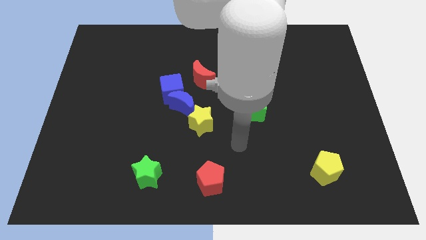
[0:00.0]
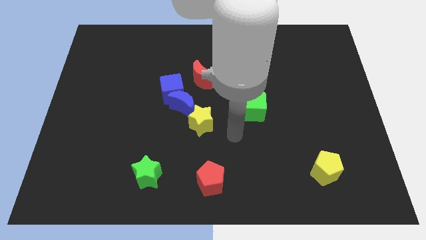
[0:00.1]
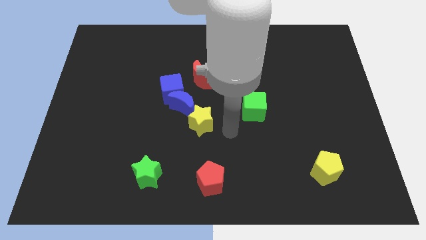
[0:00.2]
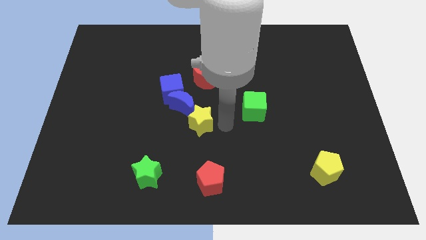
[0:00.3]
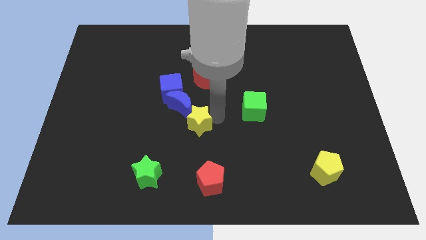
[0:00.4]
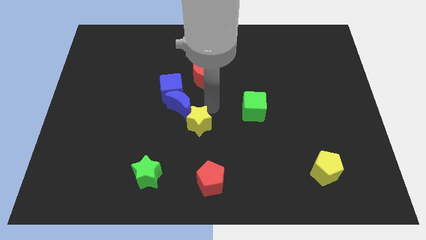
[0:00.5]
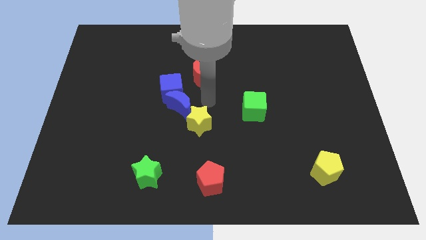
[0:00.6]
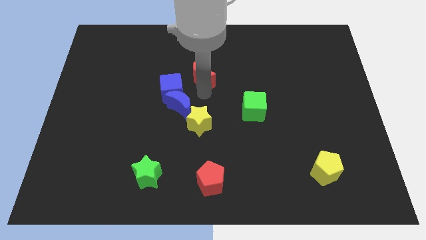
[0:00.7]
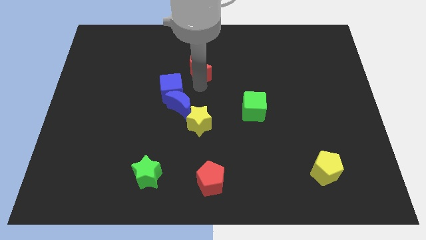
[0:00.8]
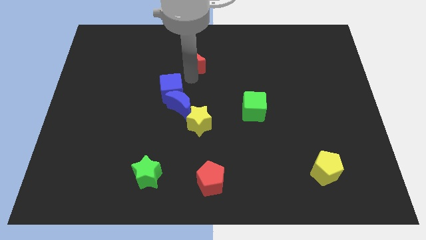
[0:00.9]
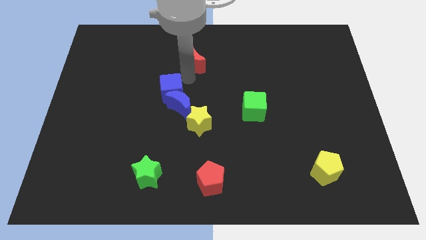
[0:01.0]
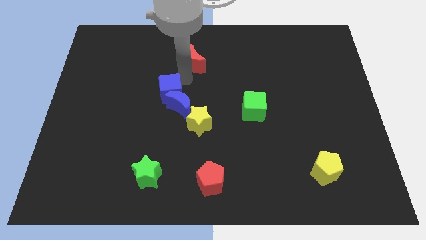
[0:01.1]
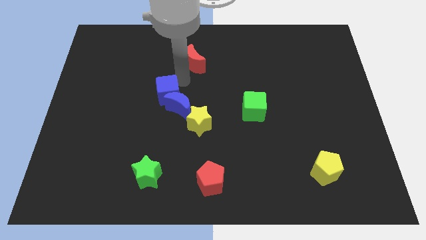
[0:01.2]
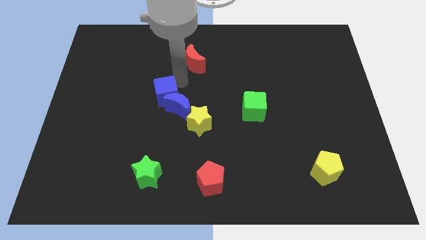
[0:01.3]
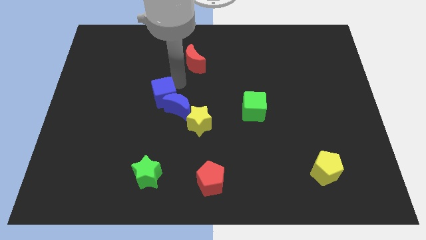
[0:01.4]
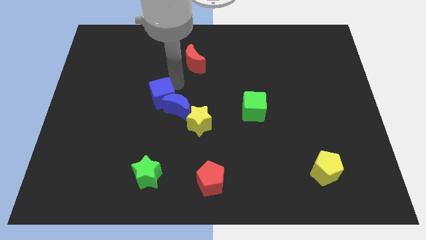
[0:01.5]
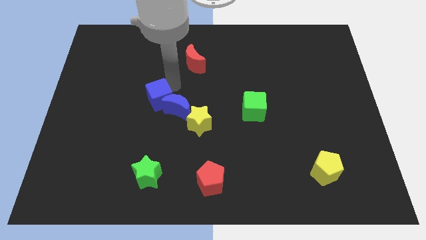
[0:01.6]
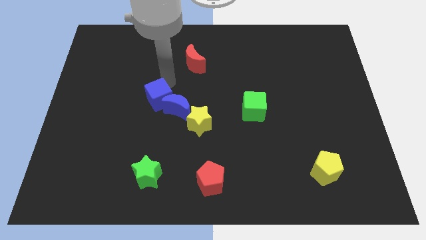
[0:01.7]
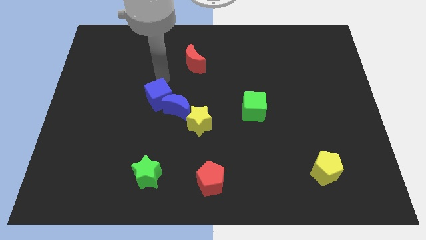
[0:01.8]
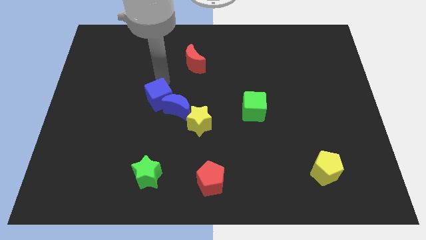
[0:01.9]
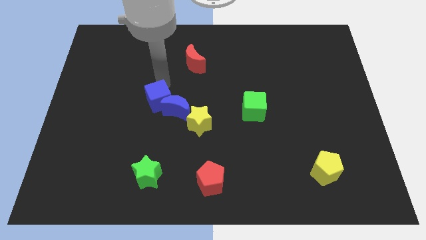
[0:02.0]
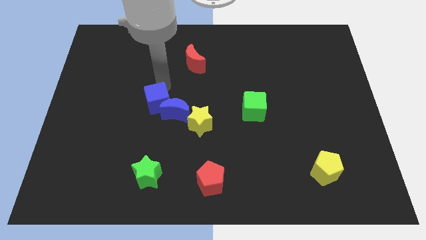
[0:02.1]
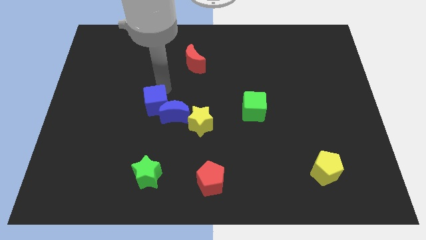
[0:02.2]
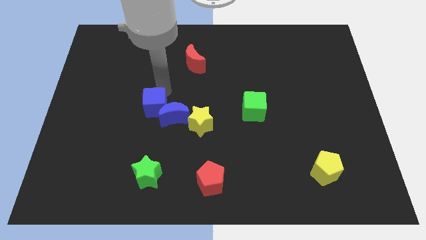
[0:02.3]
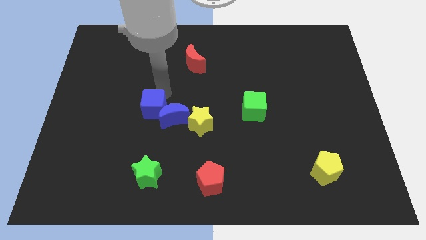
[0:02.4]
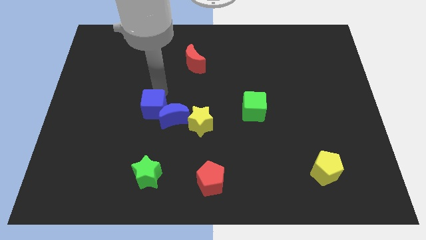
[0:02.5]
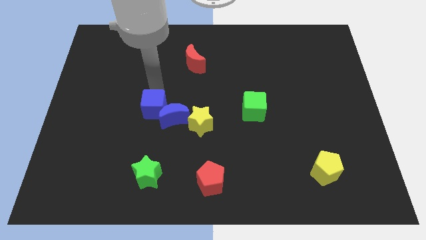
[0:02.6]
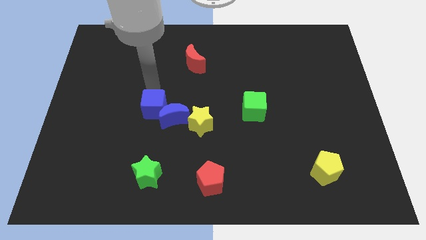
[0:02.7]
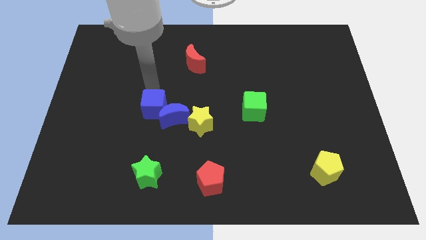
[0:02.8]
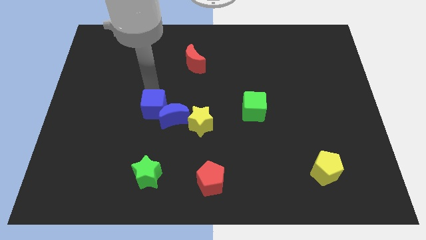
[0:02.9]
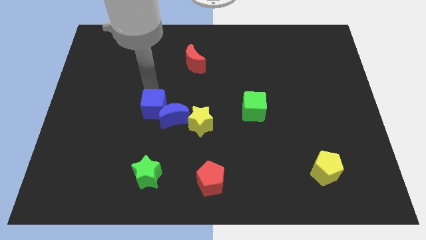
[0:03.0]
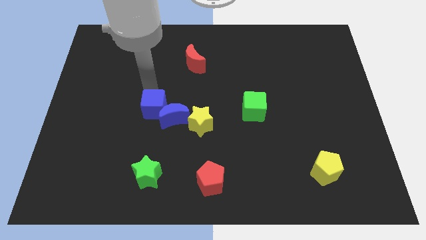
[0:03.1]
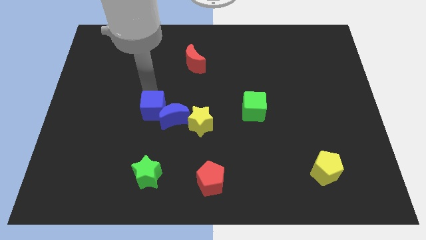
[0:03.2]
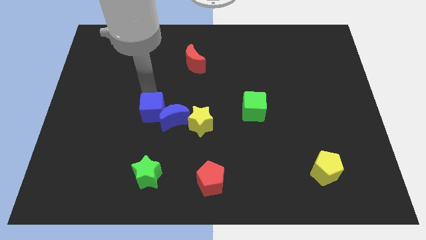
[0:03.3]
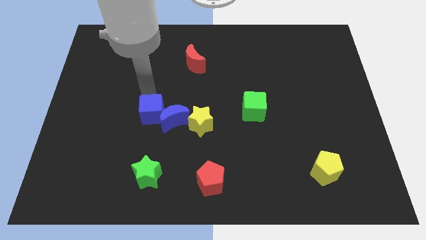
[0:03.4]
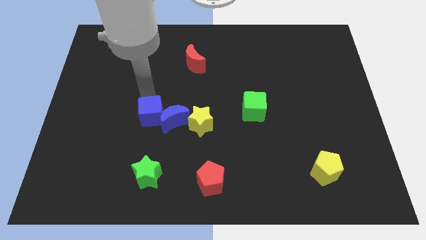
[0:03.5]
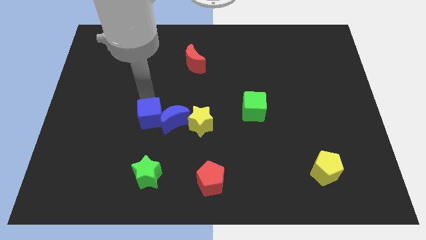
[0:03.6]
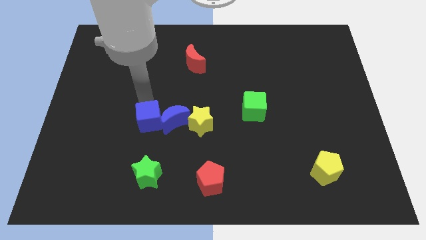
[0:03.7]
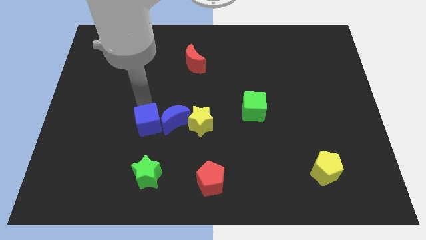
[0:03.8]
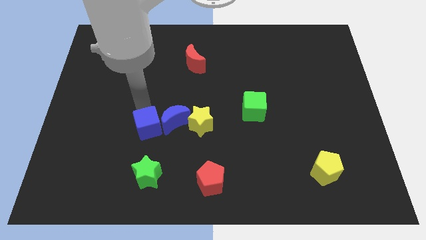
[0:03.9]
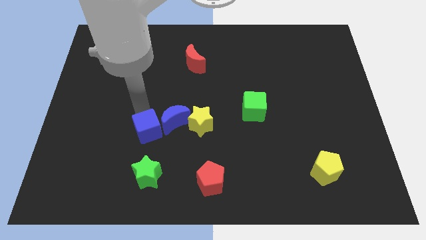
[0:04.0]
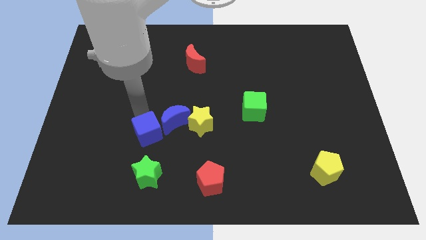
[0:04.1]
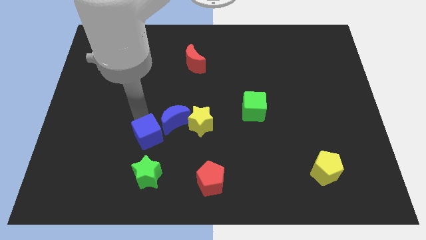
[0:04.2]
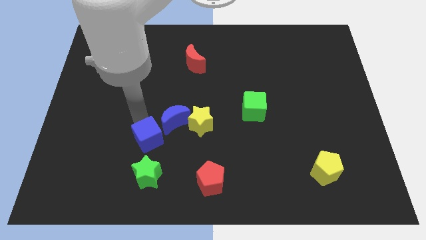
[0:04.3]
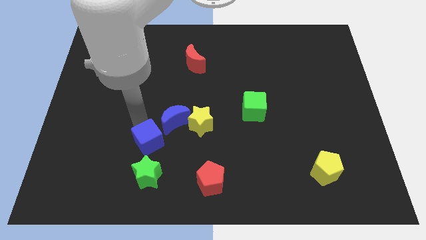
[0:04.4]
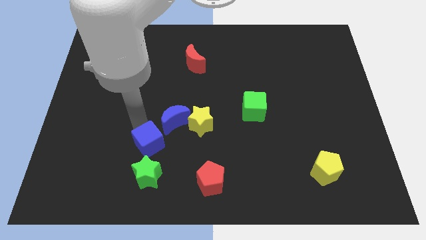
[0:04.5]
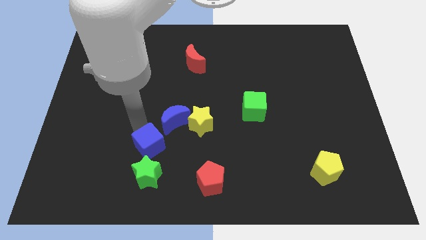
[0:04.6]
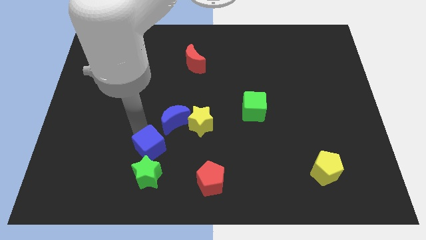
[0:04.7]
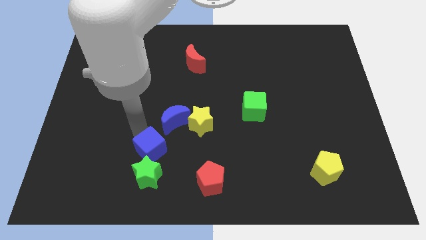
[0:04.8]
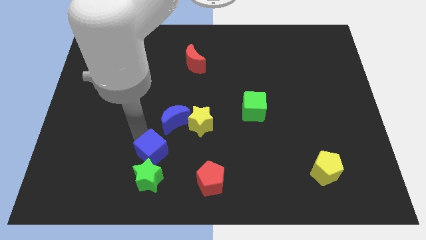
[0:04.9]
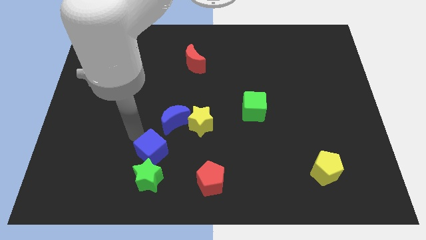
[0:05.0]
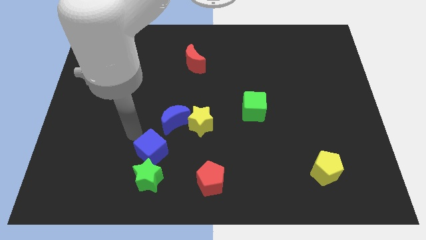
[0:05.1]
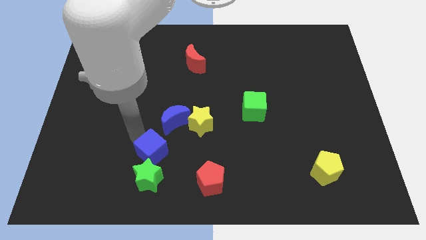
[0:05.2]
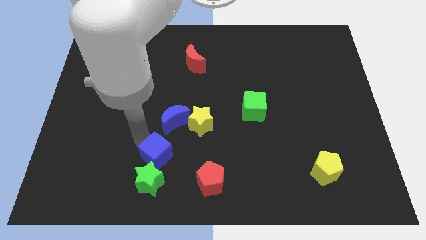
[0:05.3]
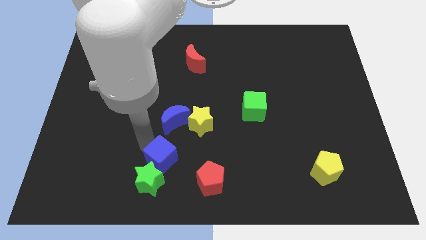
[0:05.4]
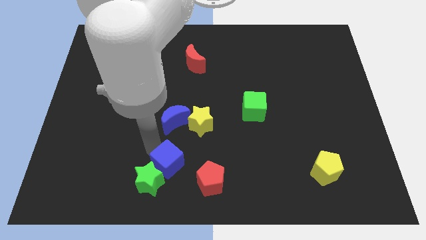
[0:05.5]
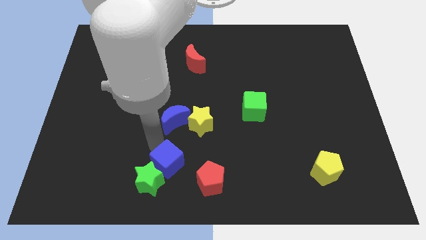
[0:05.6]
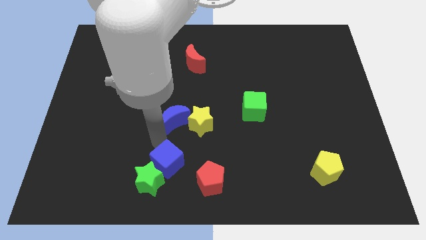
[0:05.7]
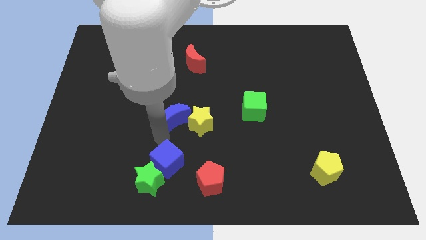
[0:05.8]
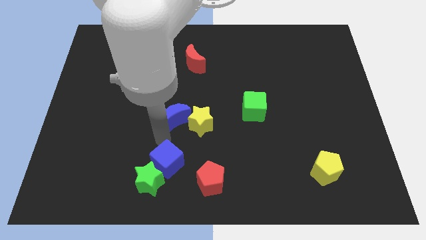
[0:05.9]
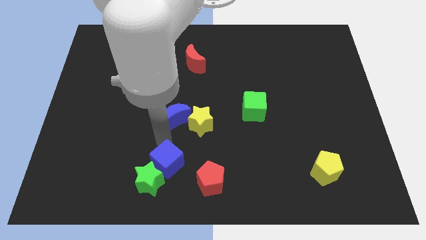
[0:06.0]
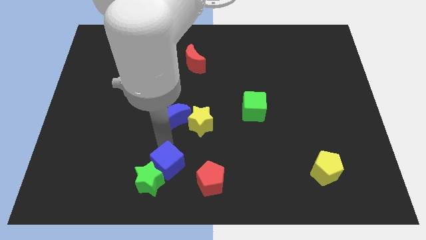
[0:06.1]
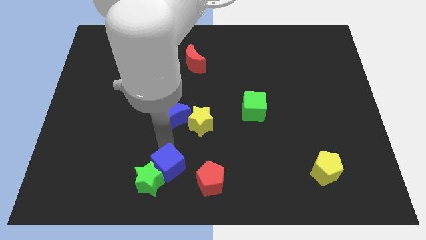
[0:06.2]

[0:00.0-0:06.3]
slide the blue cube to the bottom side

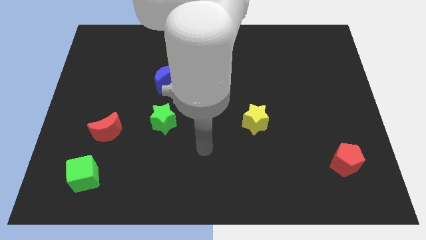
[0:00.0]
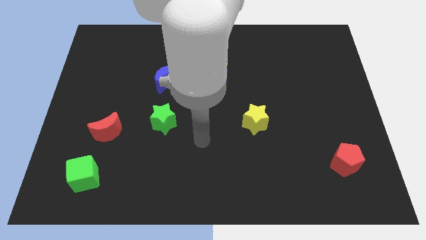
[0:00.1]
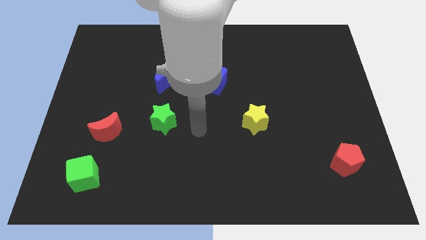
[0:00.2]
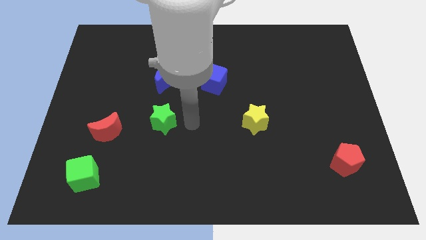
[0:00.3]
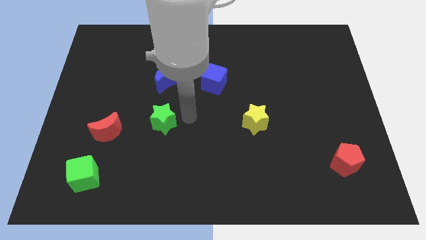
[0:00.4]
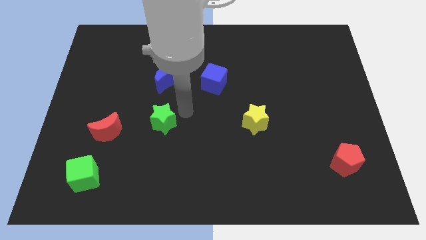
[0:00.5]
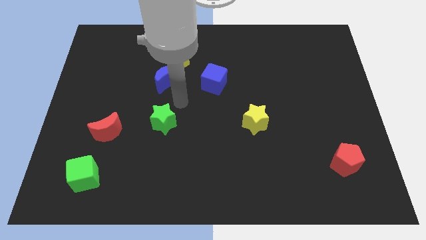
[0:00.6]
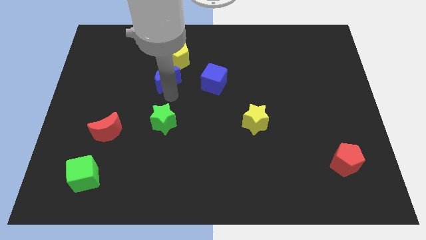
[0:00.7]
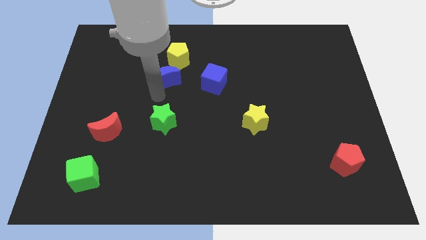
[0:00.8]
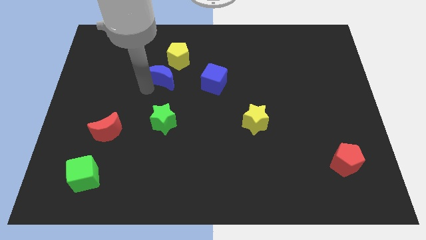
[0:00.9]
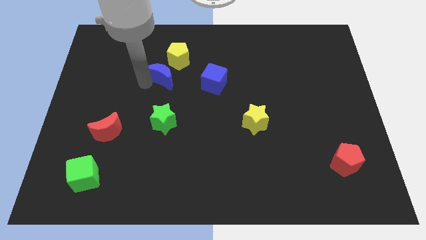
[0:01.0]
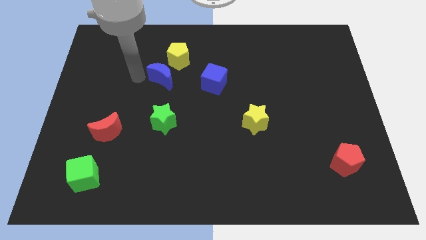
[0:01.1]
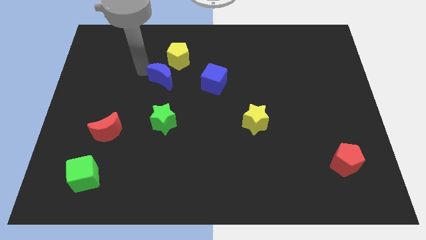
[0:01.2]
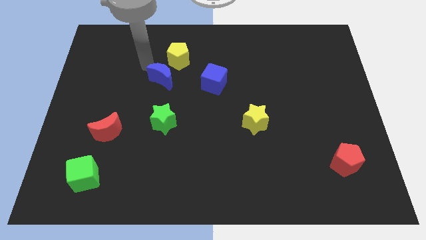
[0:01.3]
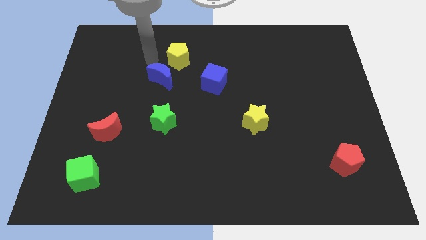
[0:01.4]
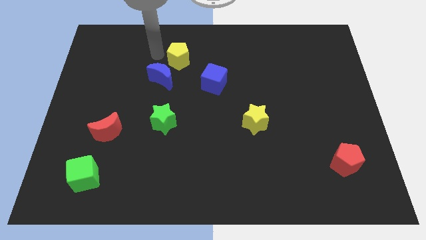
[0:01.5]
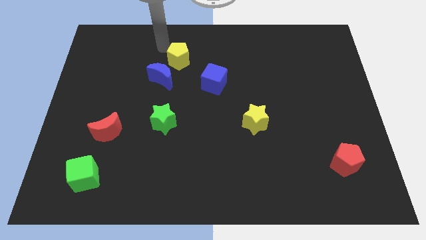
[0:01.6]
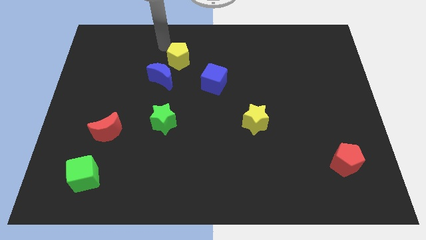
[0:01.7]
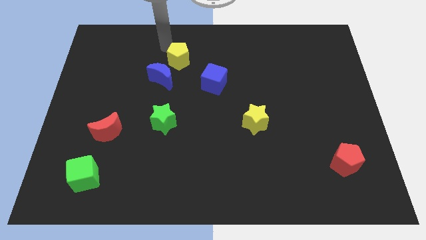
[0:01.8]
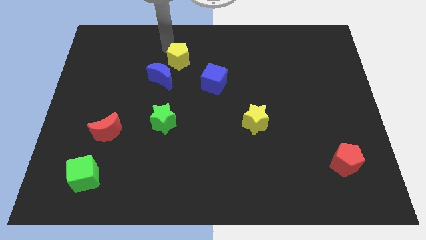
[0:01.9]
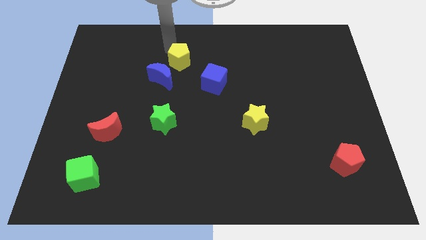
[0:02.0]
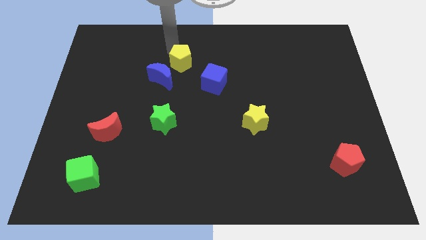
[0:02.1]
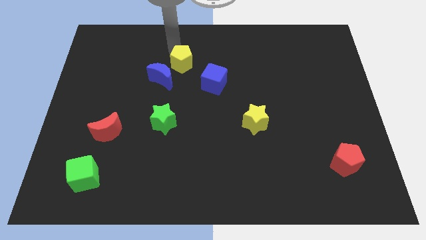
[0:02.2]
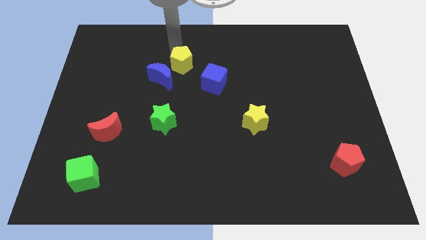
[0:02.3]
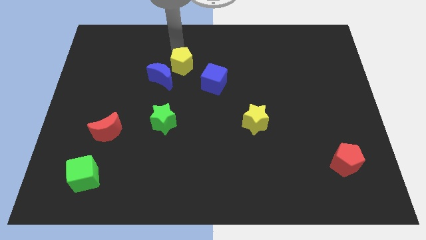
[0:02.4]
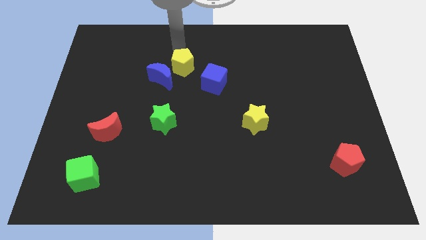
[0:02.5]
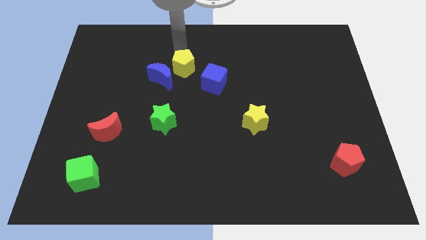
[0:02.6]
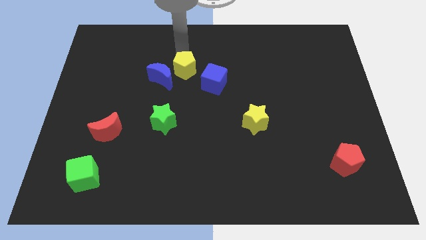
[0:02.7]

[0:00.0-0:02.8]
move the yellow pentagon to the center of the board
